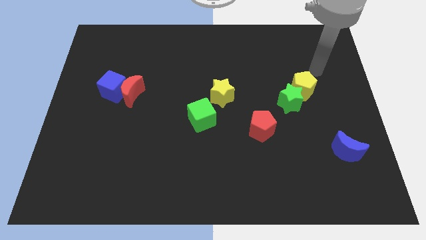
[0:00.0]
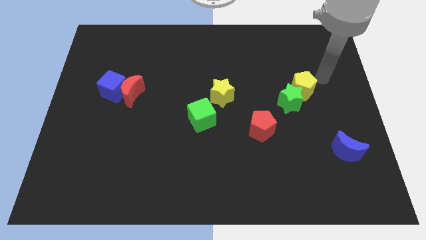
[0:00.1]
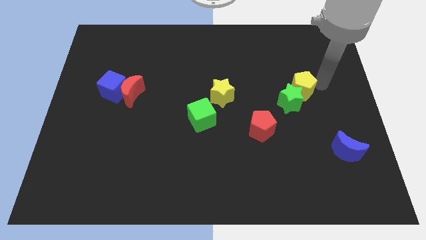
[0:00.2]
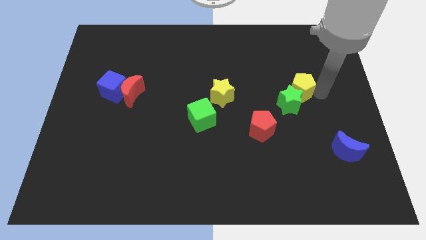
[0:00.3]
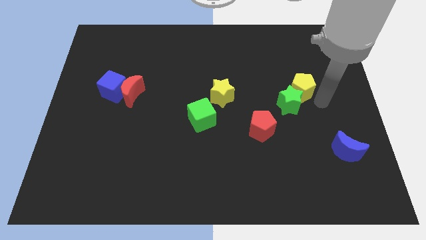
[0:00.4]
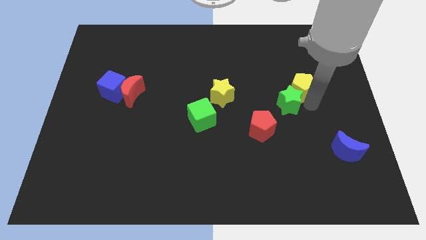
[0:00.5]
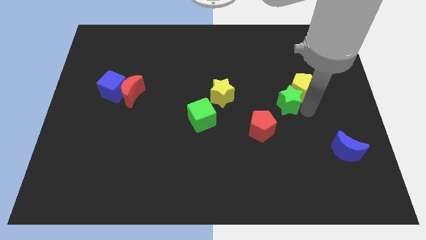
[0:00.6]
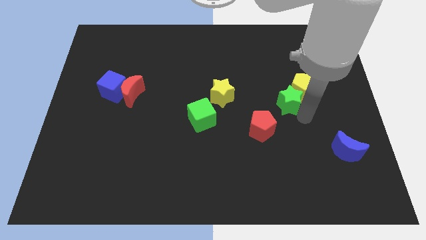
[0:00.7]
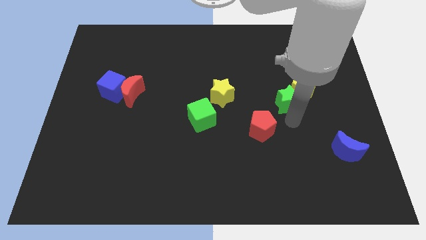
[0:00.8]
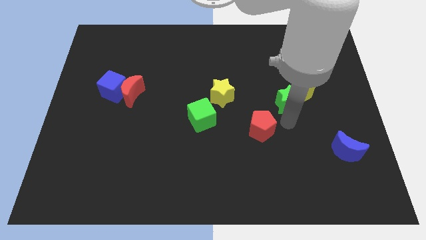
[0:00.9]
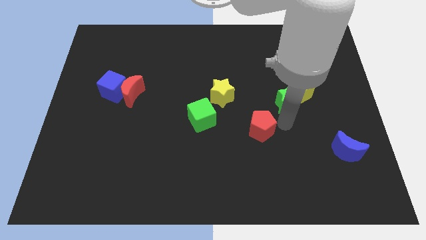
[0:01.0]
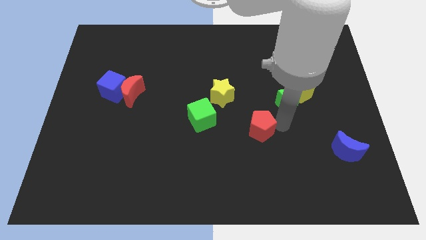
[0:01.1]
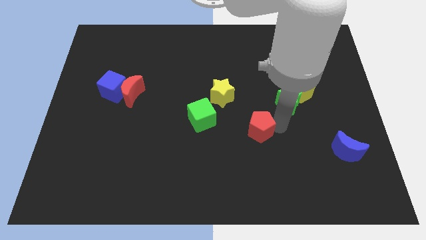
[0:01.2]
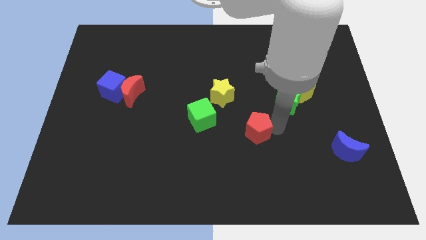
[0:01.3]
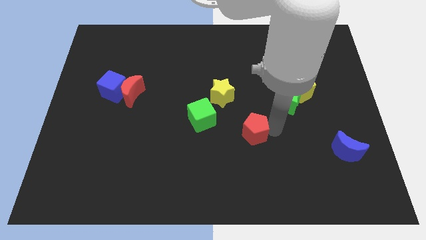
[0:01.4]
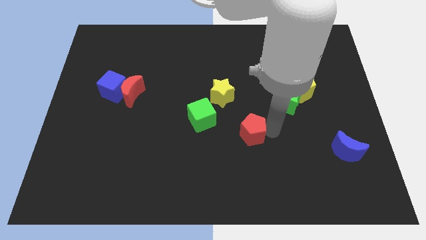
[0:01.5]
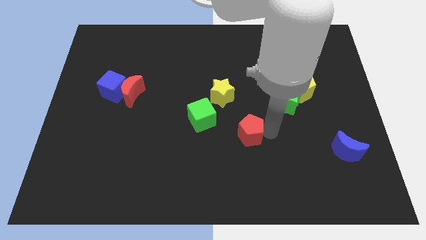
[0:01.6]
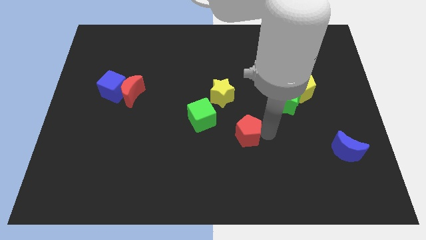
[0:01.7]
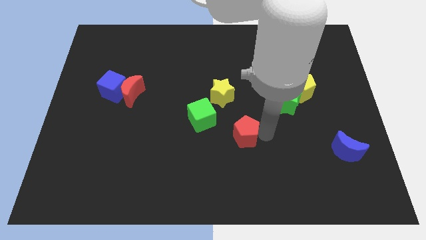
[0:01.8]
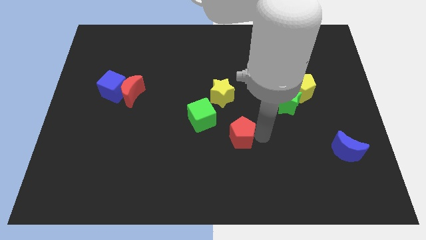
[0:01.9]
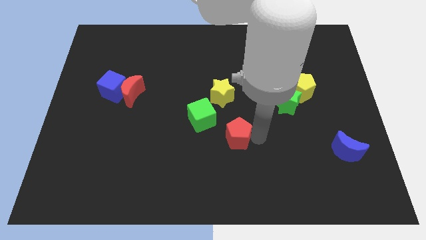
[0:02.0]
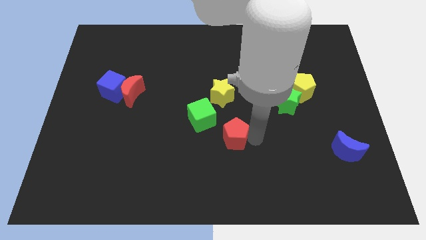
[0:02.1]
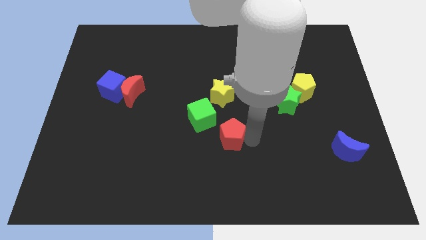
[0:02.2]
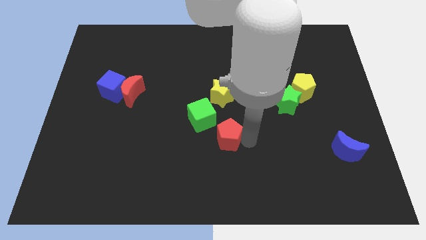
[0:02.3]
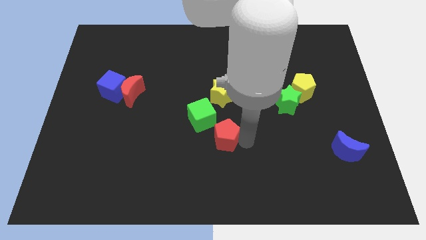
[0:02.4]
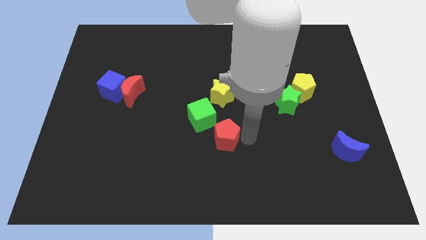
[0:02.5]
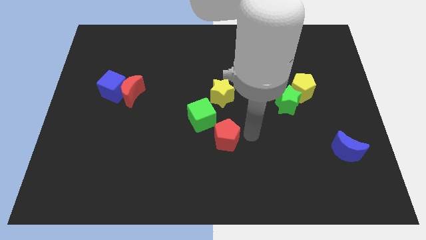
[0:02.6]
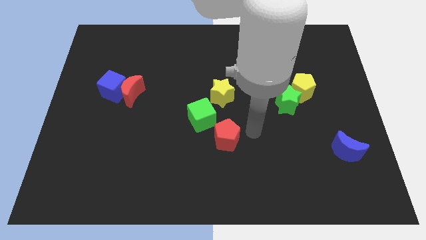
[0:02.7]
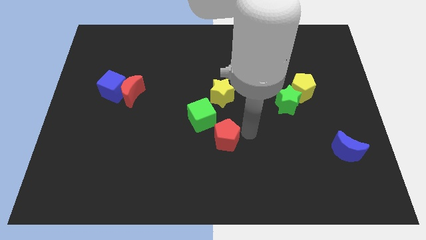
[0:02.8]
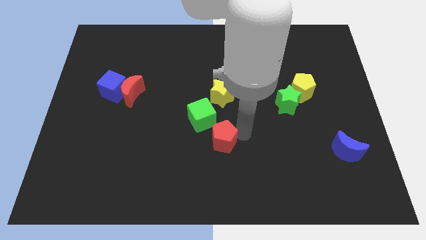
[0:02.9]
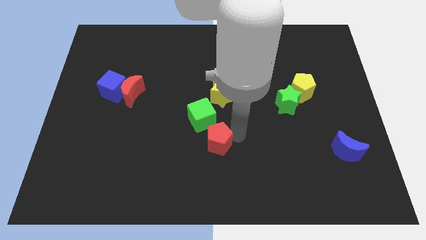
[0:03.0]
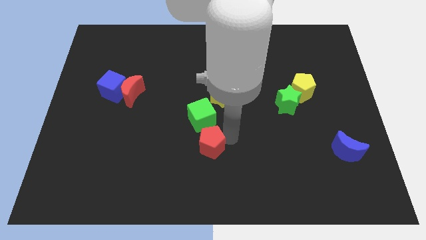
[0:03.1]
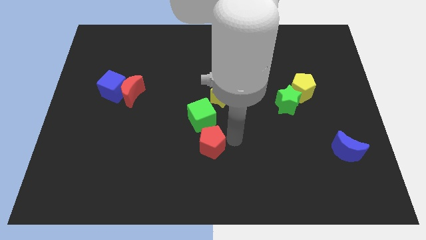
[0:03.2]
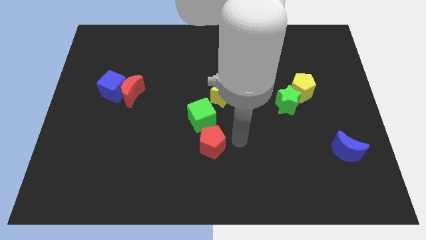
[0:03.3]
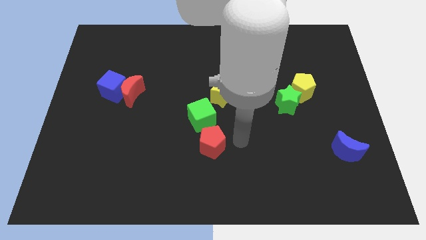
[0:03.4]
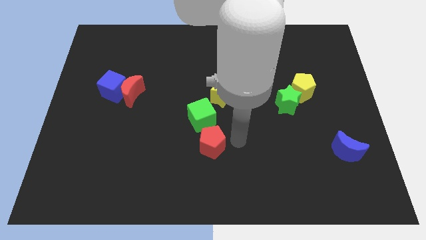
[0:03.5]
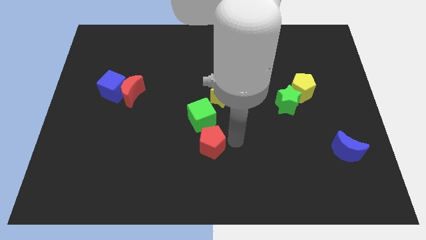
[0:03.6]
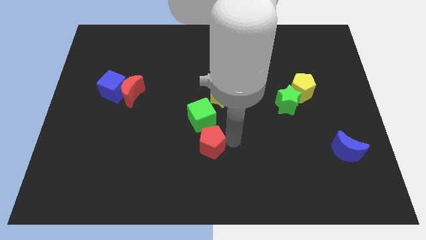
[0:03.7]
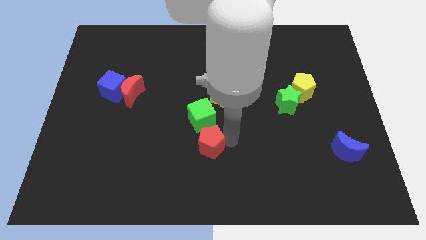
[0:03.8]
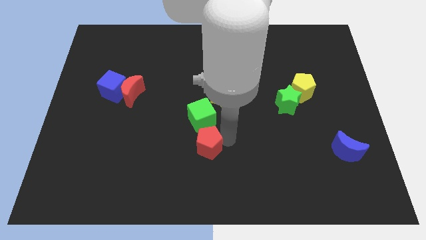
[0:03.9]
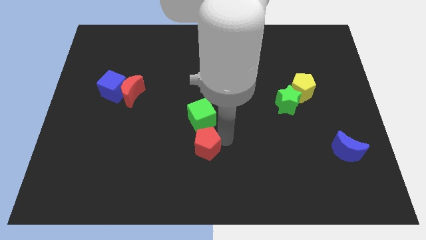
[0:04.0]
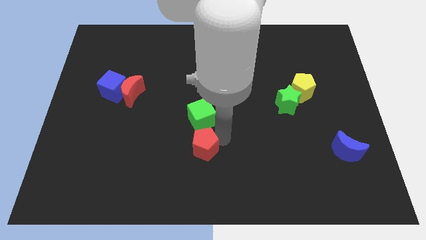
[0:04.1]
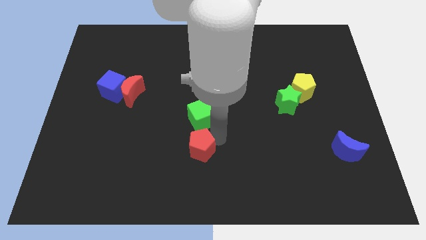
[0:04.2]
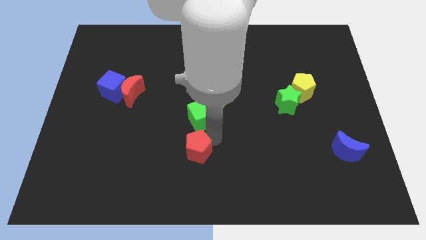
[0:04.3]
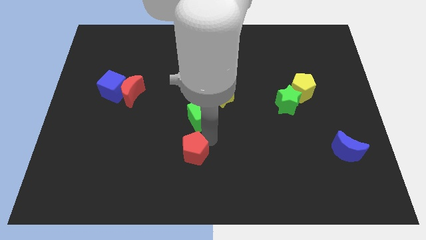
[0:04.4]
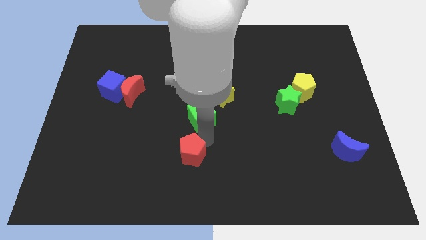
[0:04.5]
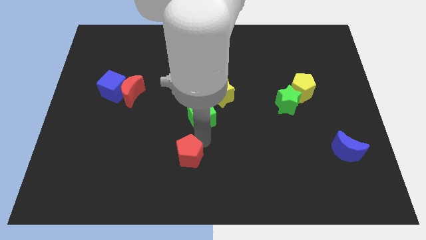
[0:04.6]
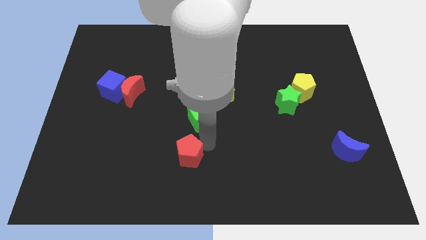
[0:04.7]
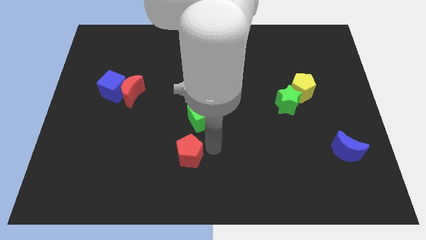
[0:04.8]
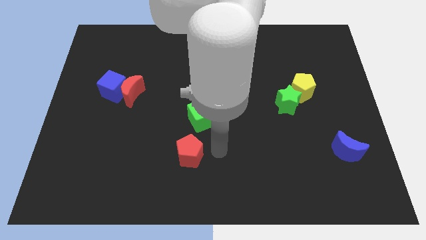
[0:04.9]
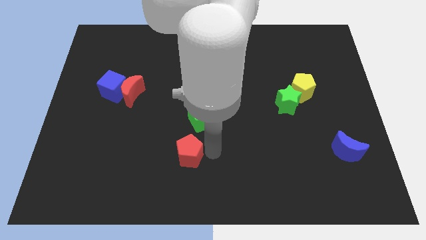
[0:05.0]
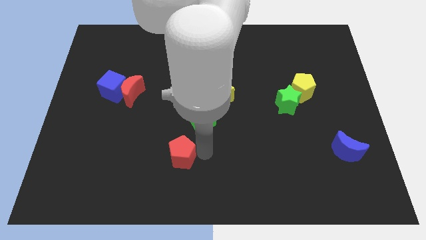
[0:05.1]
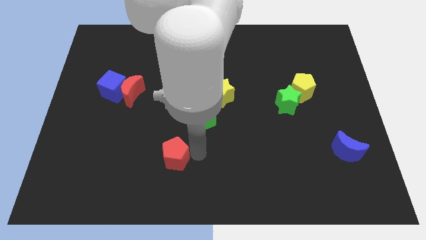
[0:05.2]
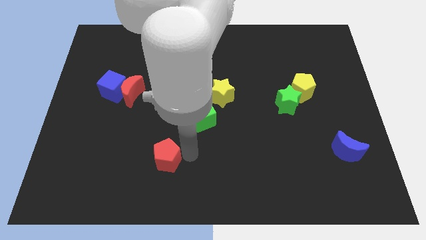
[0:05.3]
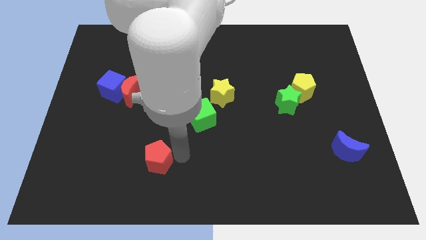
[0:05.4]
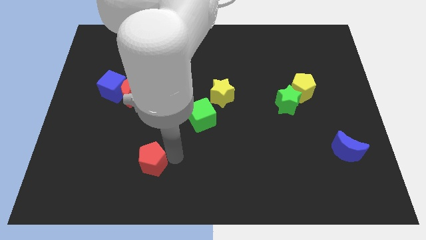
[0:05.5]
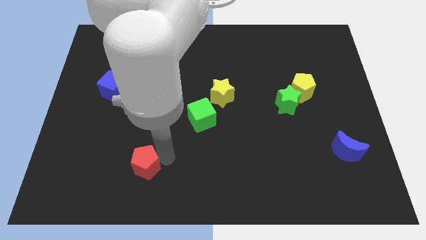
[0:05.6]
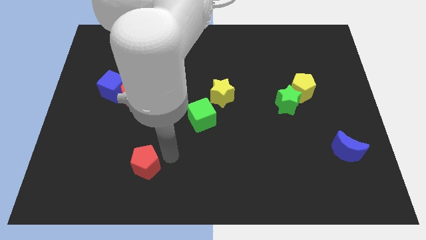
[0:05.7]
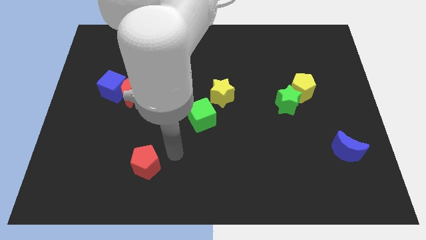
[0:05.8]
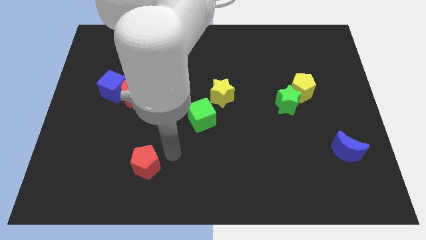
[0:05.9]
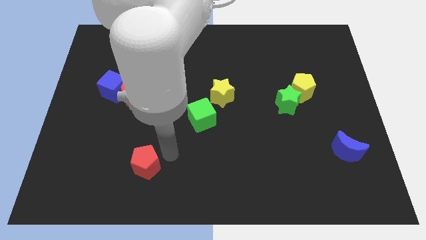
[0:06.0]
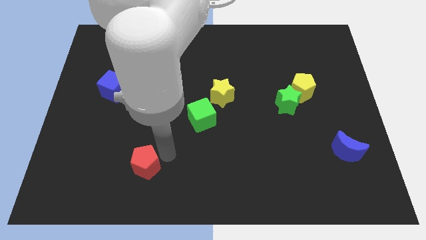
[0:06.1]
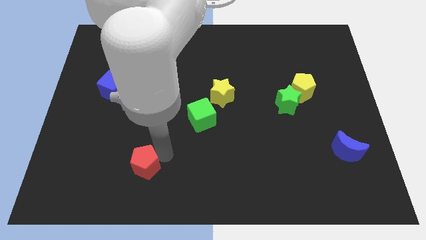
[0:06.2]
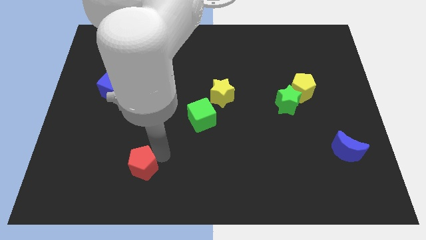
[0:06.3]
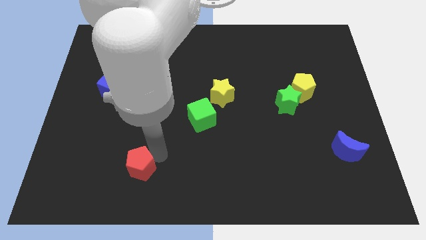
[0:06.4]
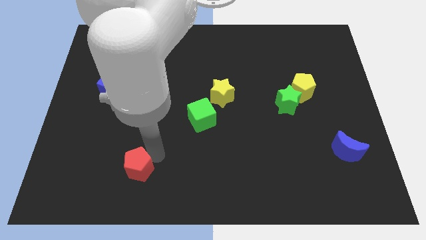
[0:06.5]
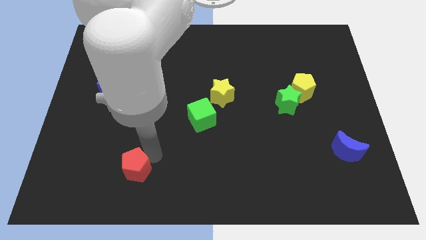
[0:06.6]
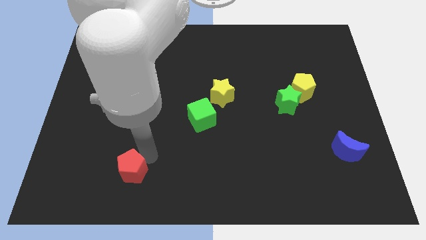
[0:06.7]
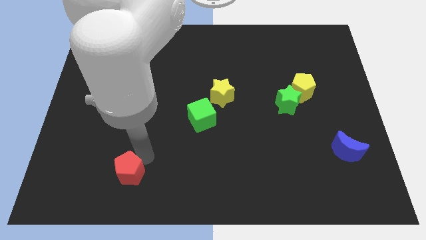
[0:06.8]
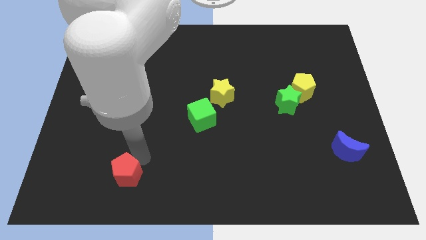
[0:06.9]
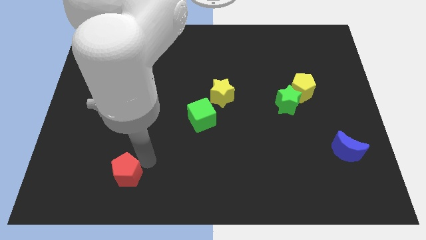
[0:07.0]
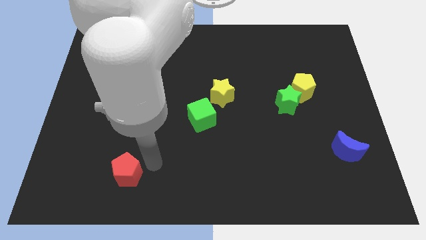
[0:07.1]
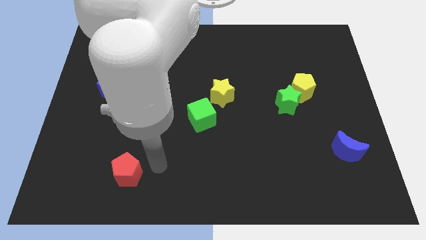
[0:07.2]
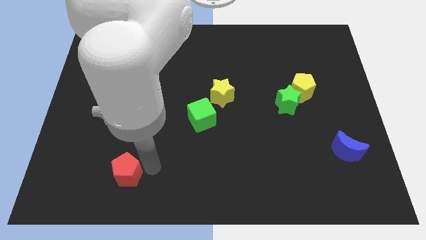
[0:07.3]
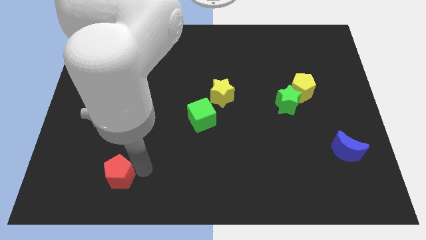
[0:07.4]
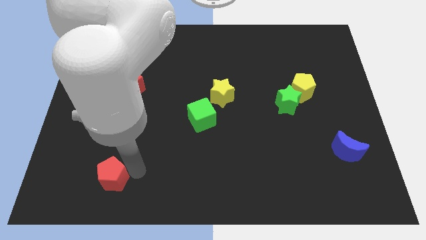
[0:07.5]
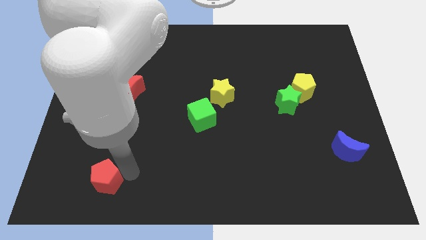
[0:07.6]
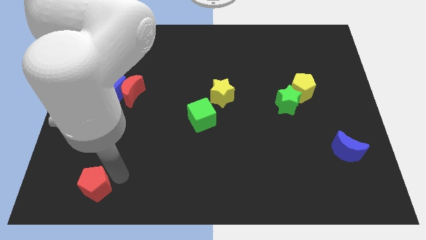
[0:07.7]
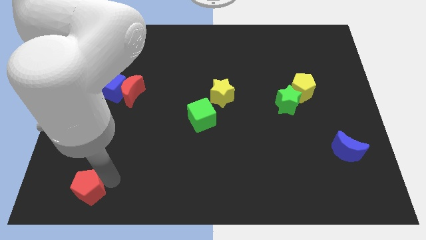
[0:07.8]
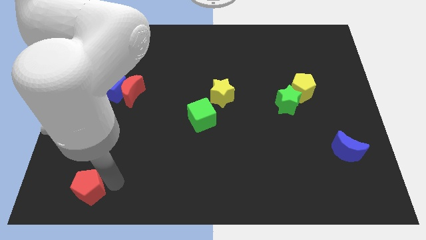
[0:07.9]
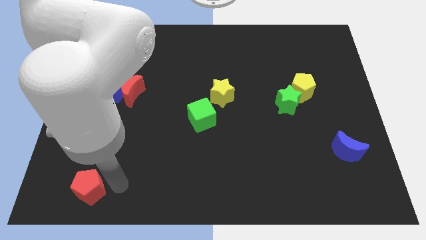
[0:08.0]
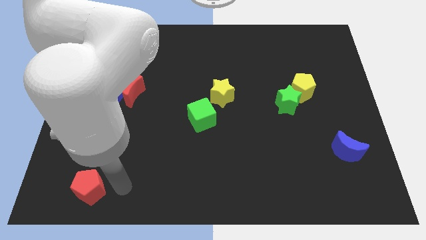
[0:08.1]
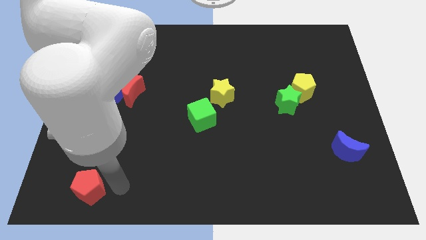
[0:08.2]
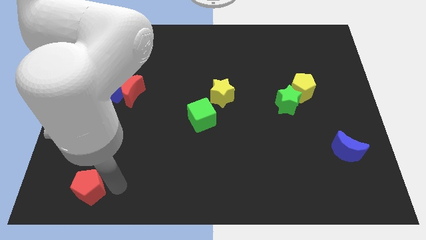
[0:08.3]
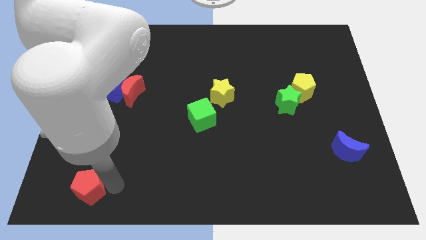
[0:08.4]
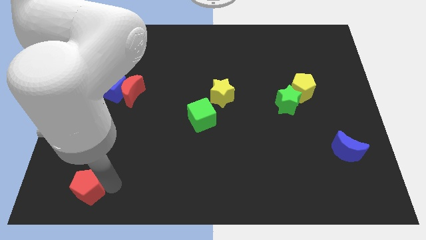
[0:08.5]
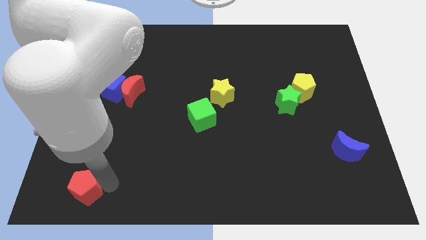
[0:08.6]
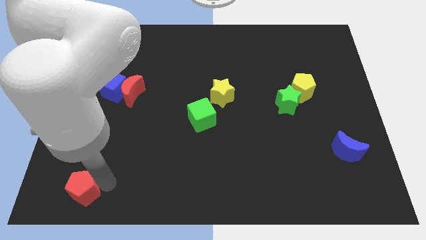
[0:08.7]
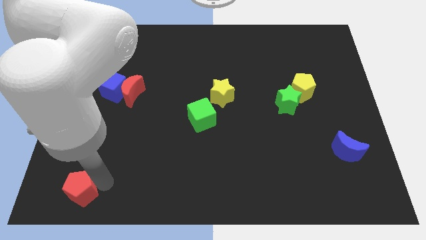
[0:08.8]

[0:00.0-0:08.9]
slide the red pentagon to the bottom left corner
